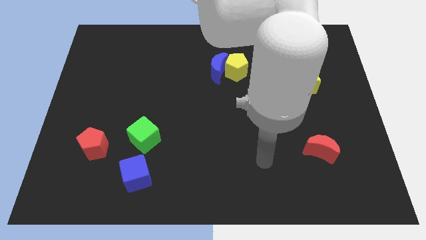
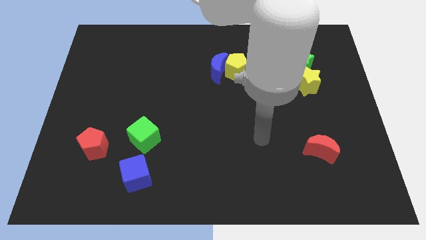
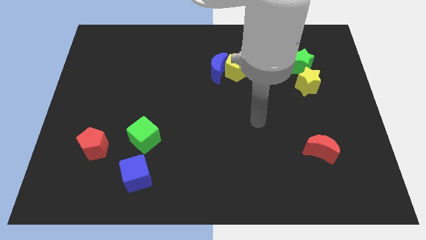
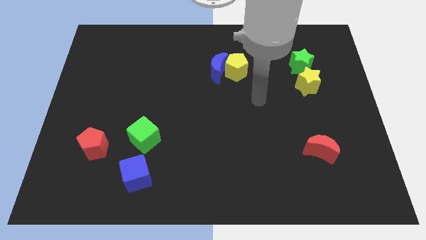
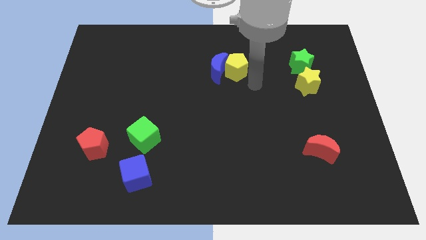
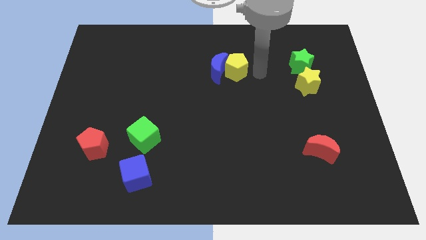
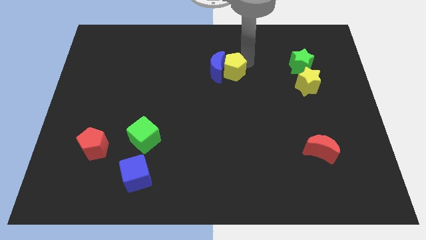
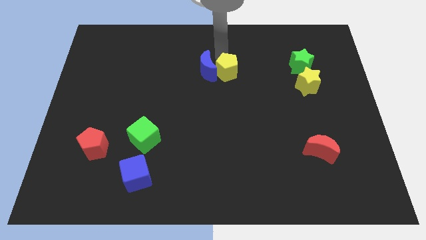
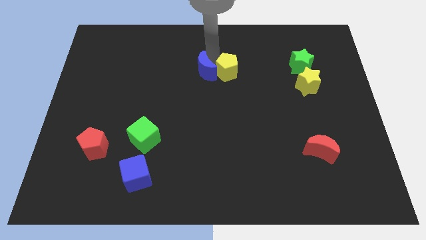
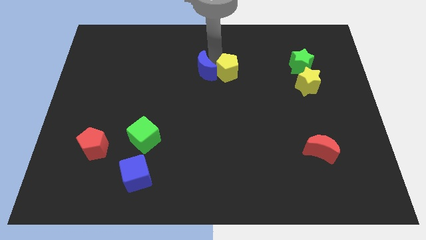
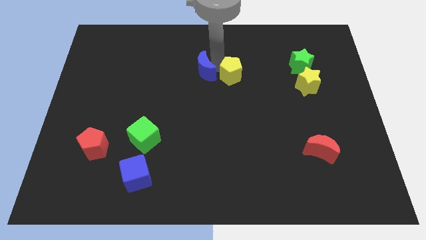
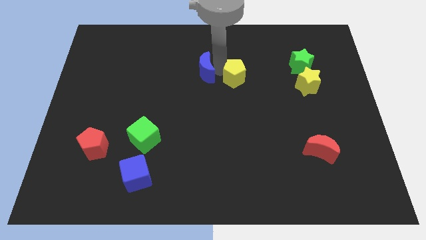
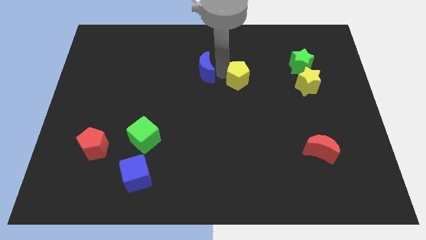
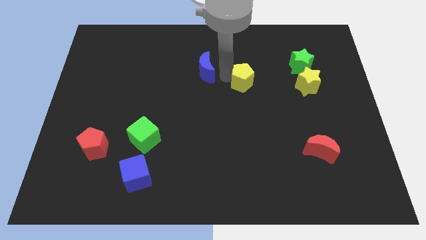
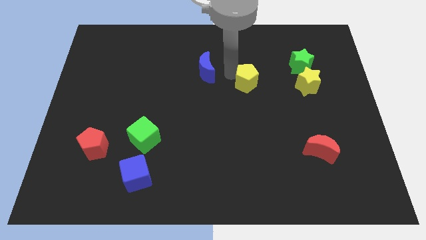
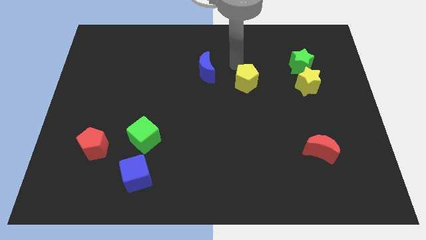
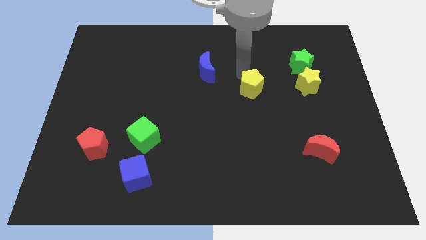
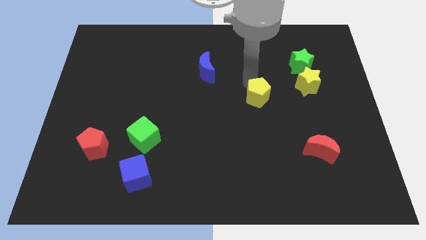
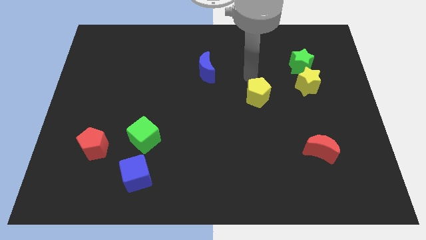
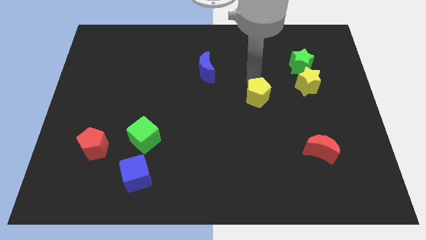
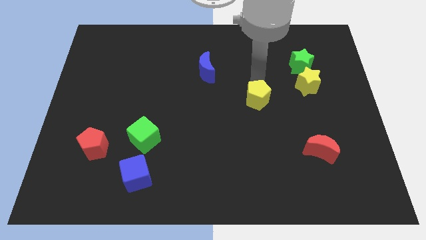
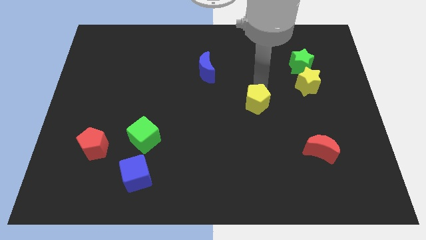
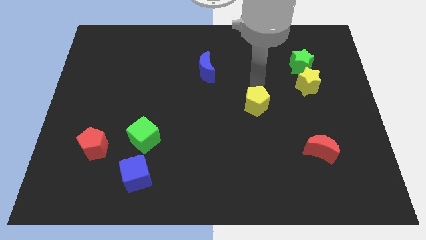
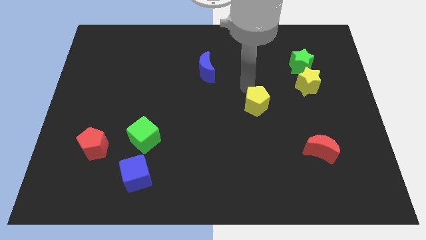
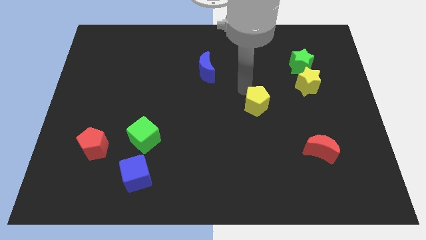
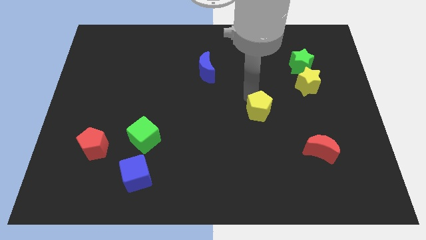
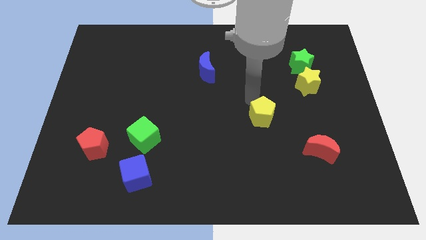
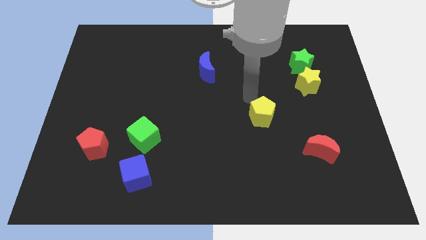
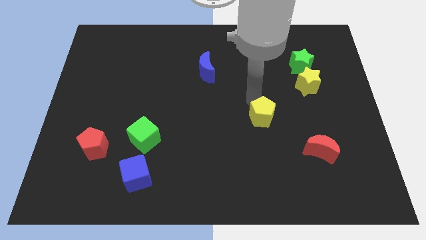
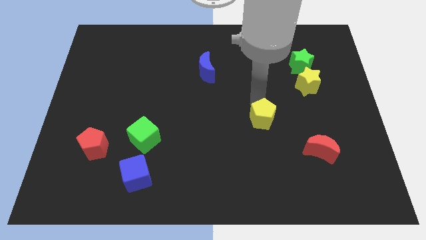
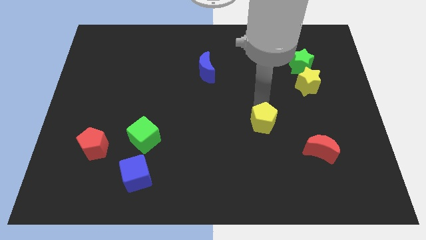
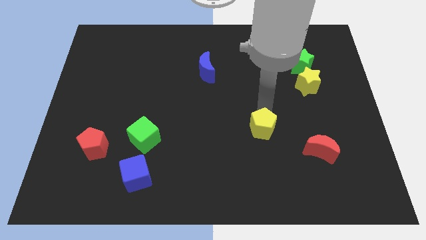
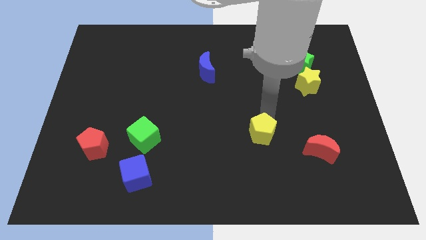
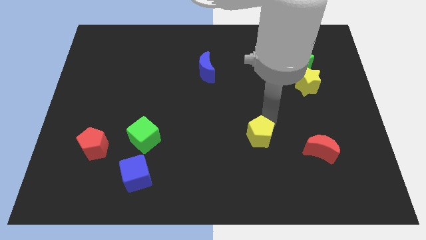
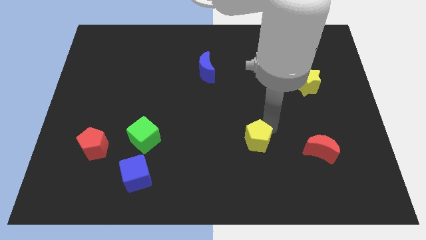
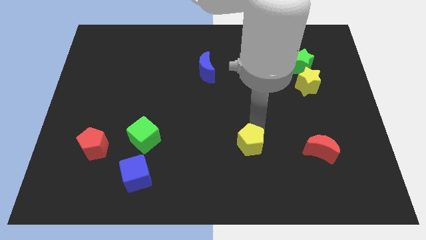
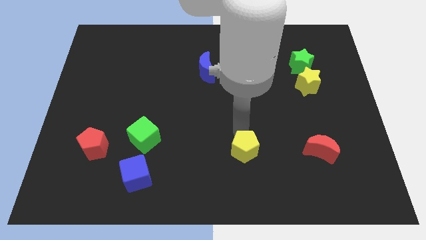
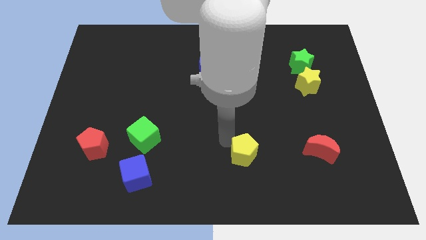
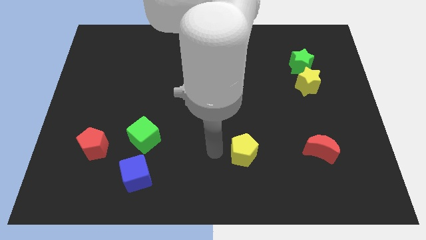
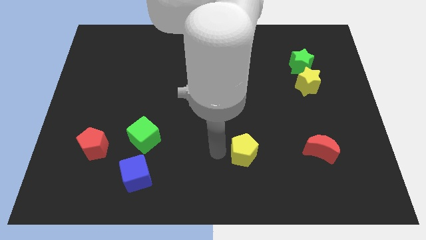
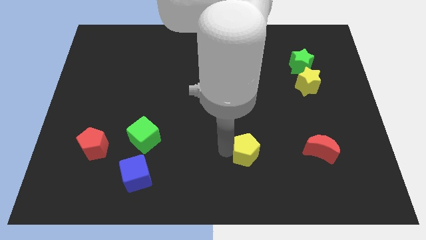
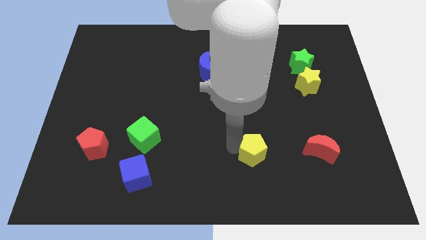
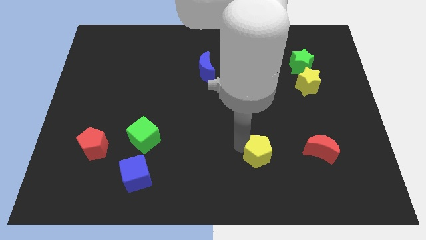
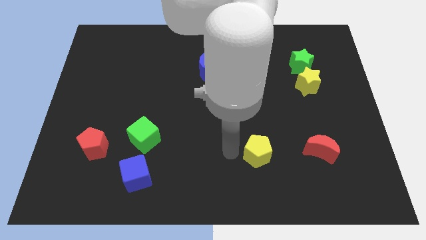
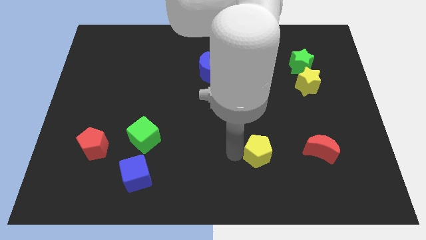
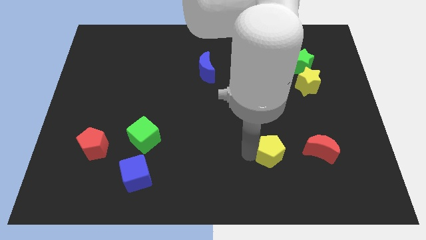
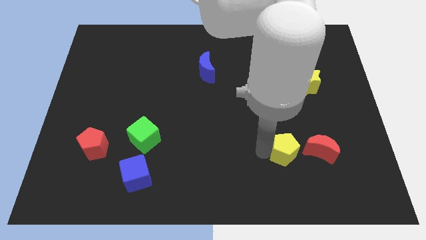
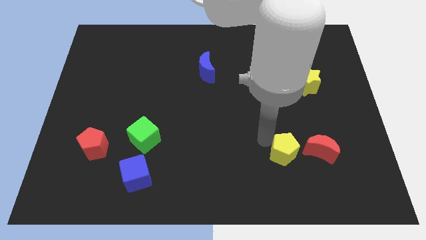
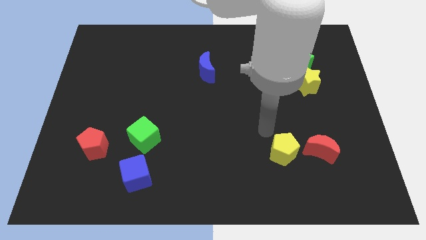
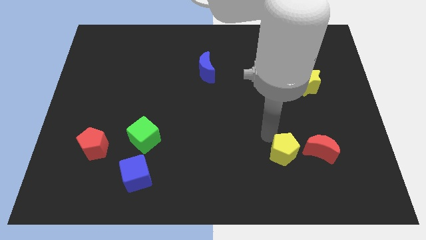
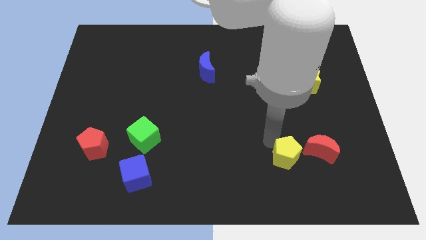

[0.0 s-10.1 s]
move the yellow pentagon diagonally down and to the left of the red moon

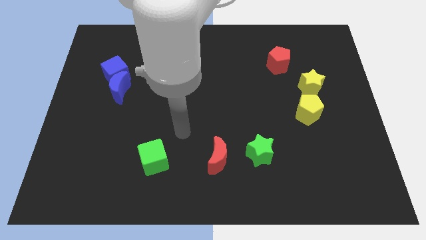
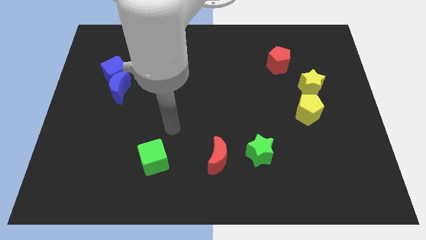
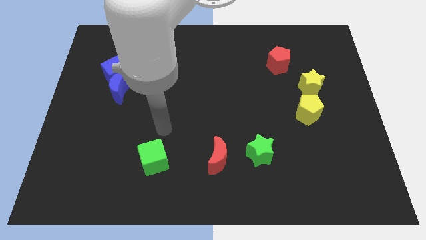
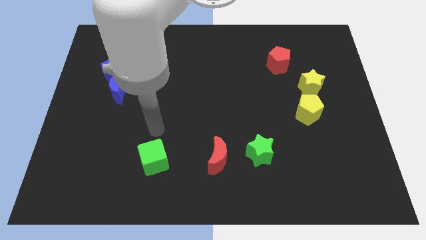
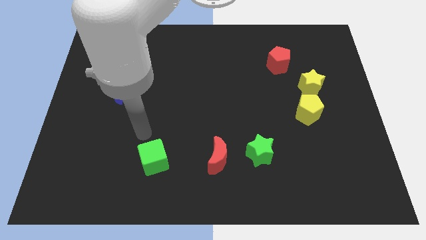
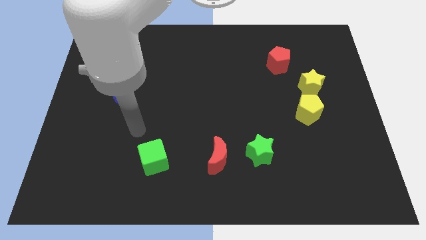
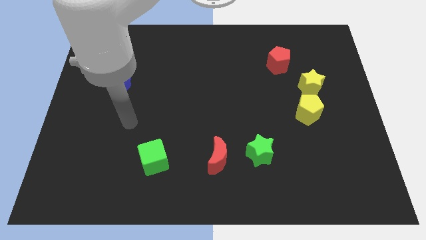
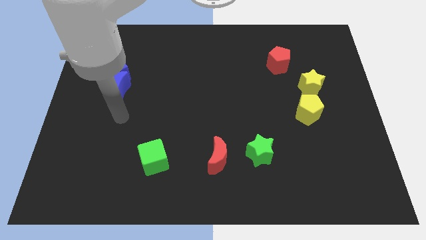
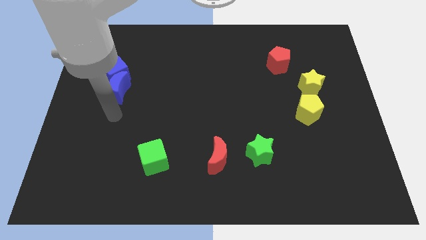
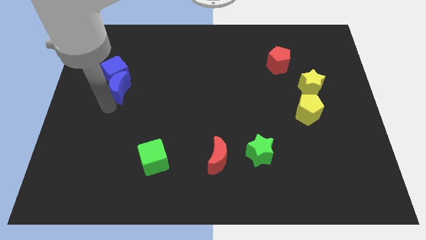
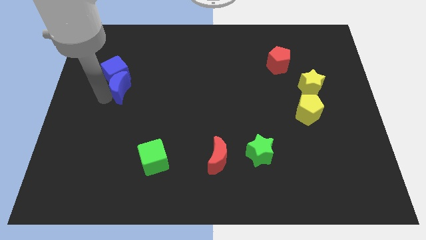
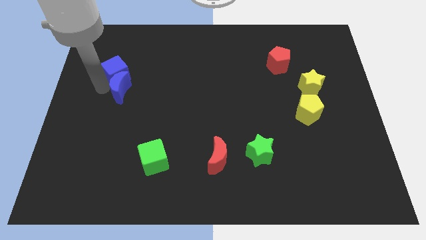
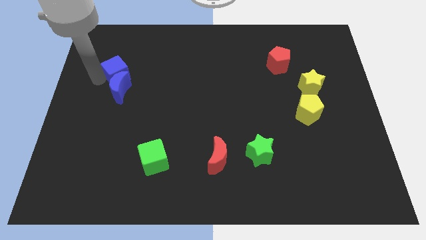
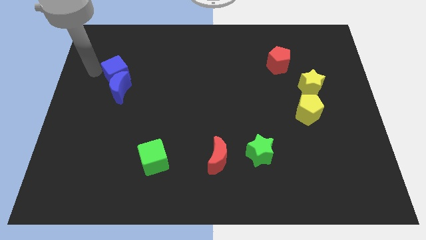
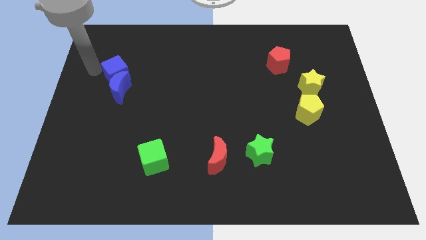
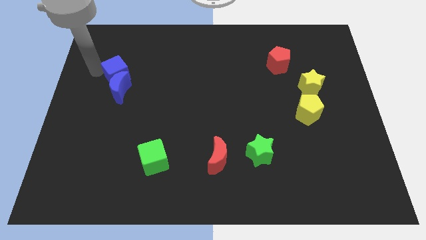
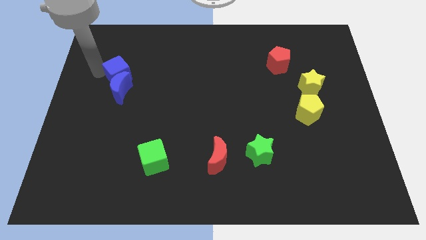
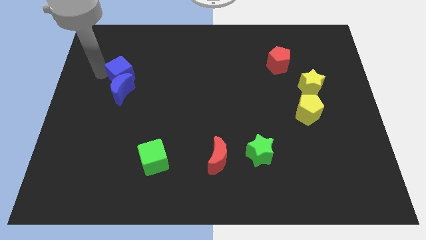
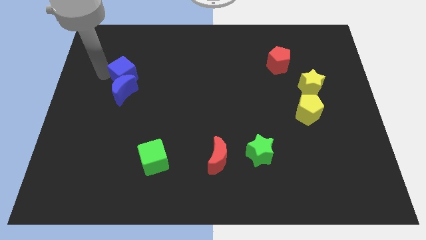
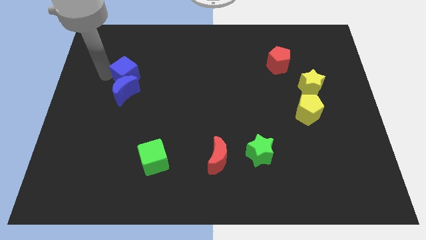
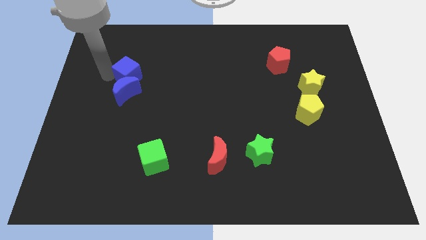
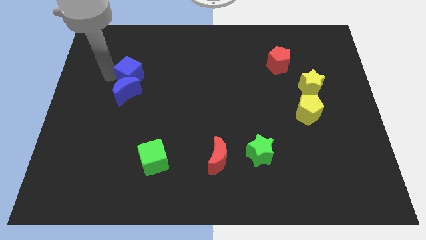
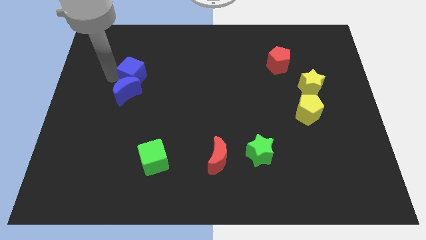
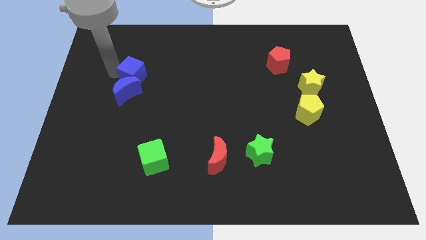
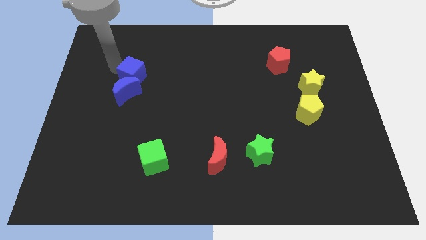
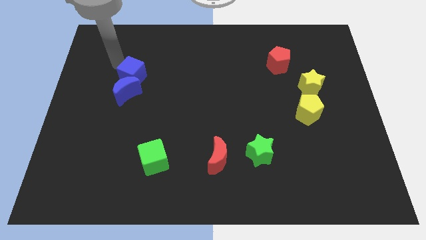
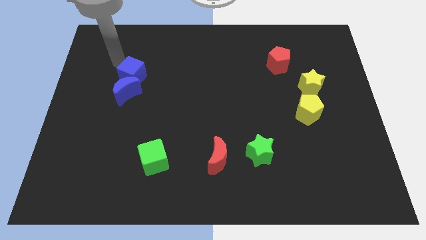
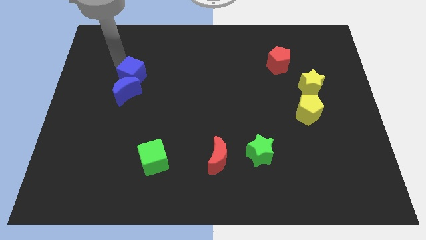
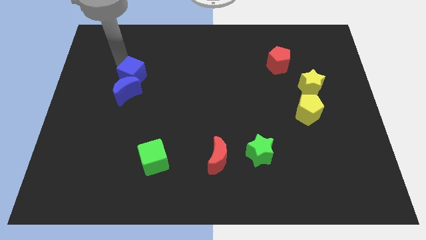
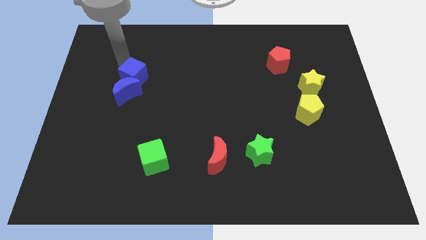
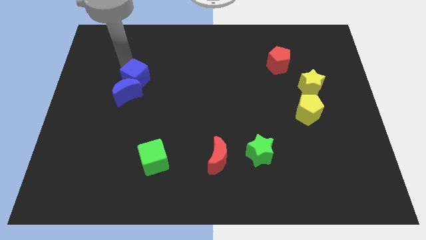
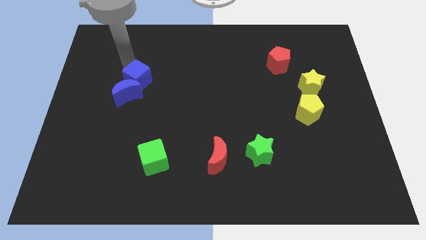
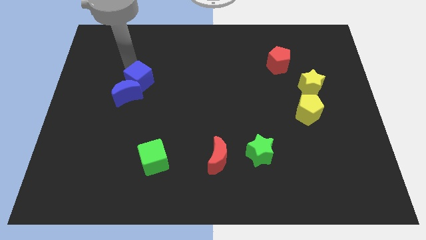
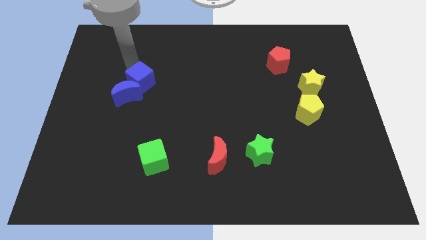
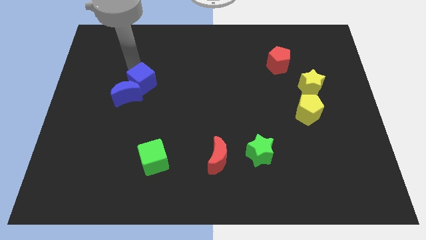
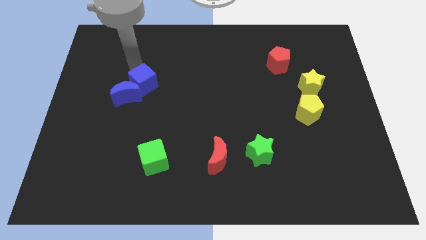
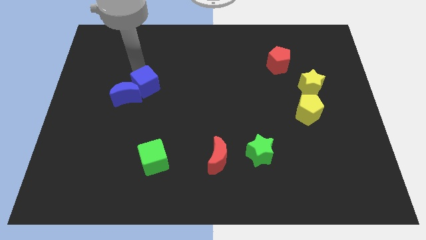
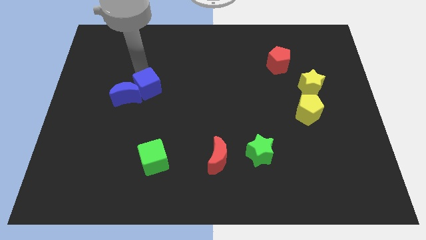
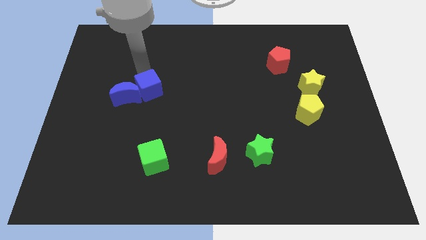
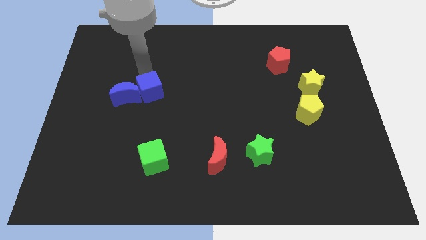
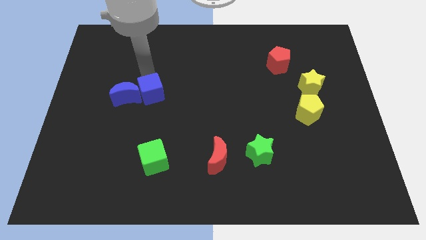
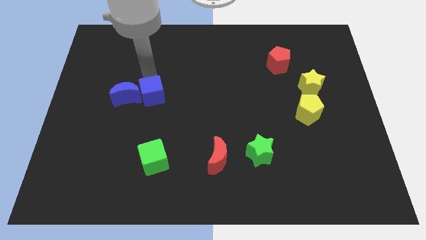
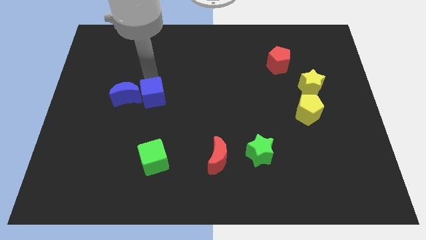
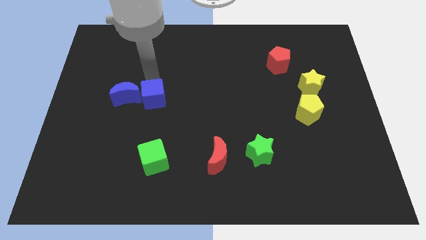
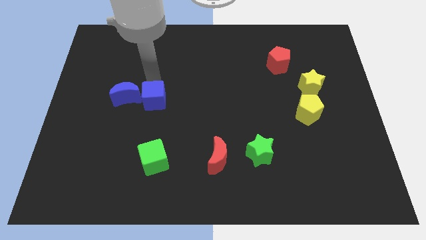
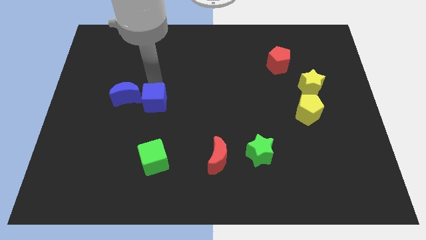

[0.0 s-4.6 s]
push the blue cube to the top side of the green cube
